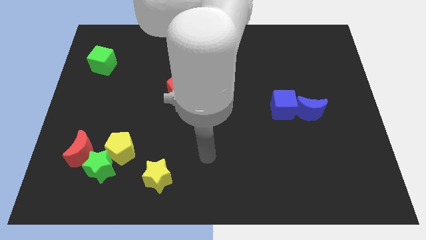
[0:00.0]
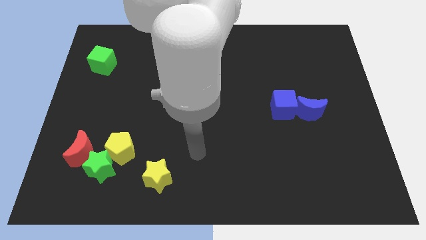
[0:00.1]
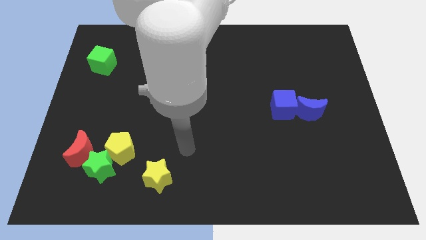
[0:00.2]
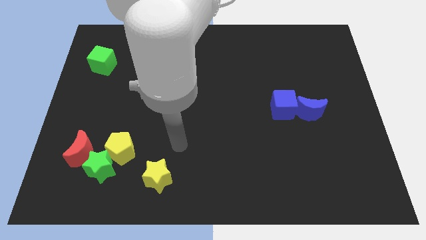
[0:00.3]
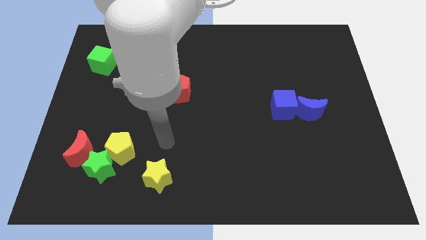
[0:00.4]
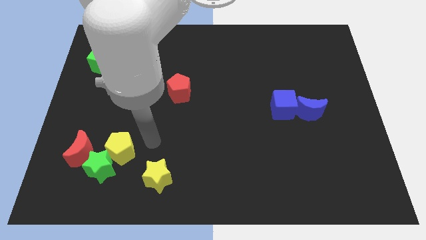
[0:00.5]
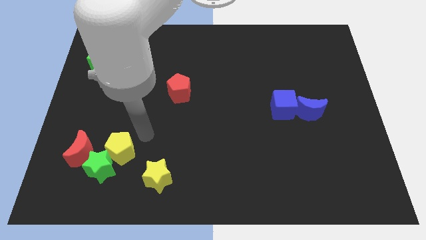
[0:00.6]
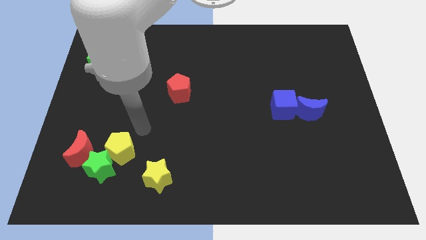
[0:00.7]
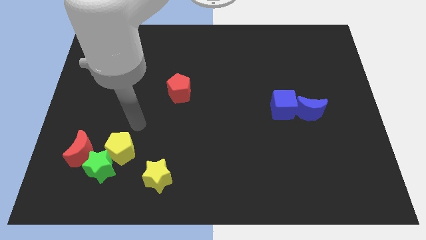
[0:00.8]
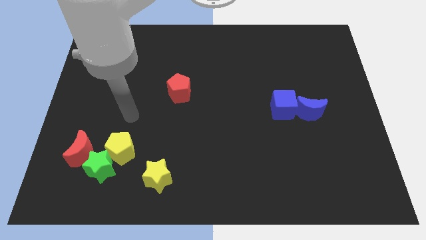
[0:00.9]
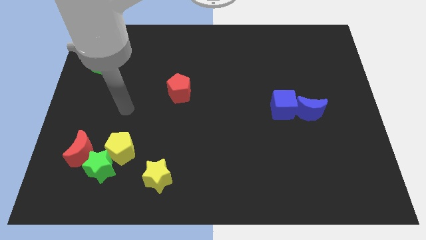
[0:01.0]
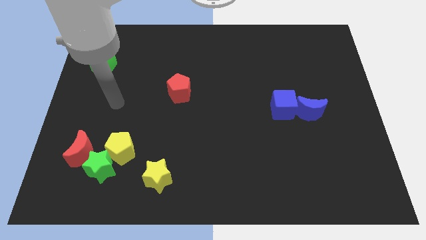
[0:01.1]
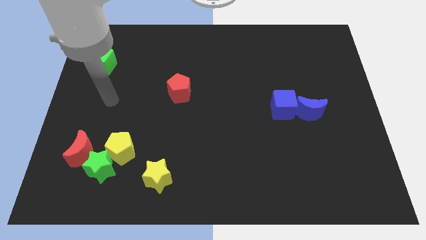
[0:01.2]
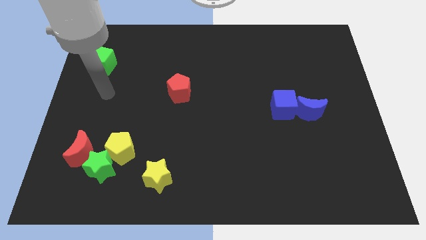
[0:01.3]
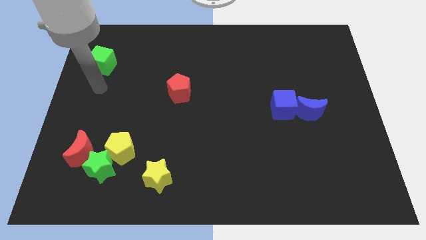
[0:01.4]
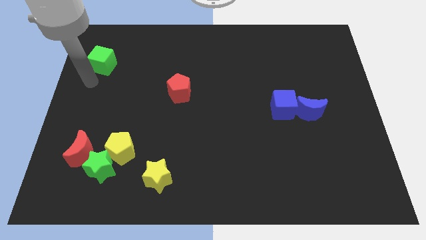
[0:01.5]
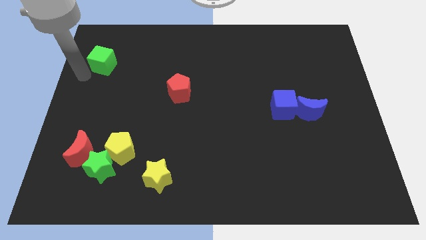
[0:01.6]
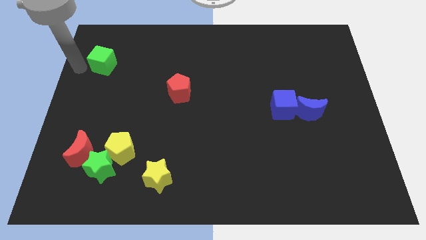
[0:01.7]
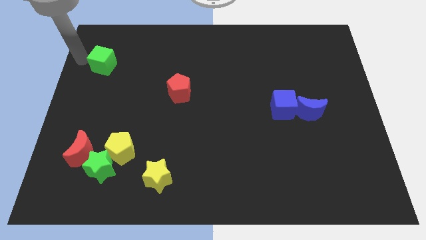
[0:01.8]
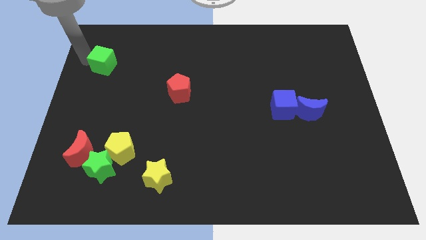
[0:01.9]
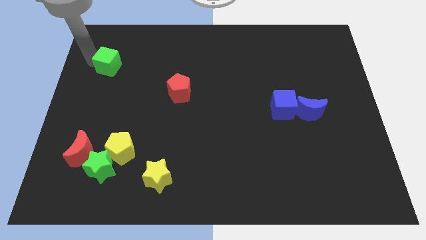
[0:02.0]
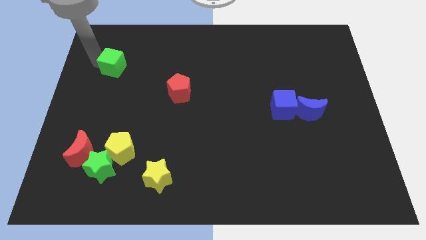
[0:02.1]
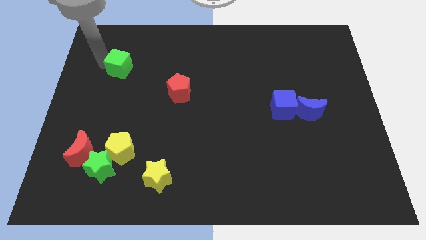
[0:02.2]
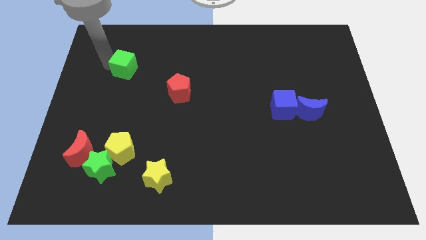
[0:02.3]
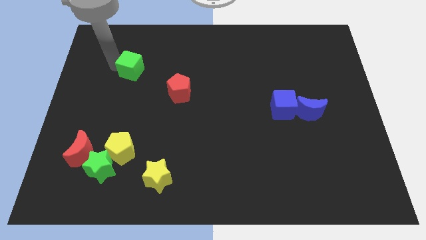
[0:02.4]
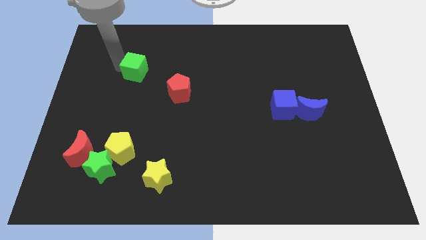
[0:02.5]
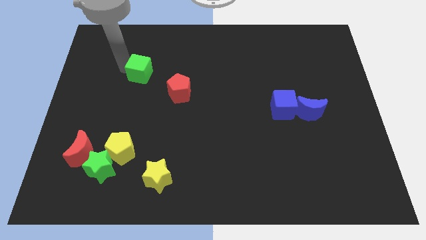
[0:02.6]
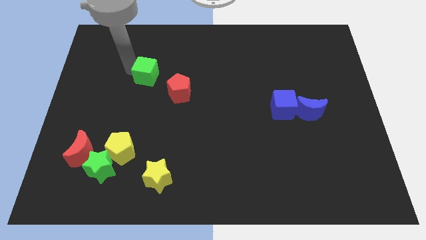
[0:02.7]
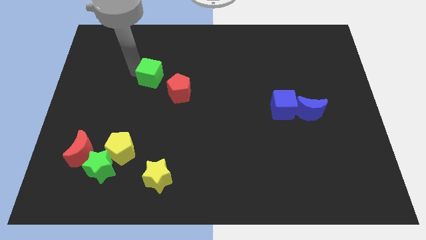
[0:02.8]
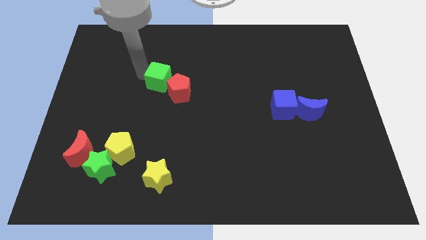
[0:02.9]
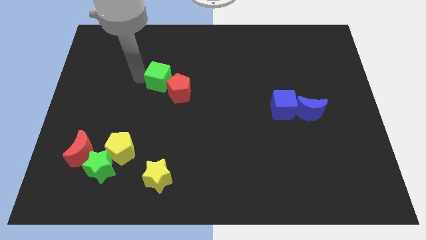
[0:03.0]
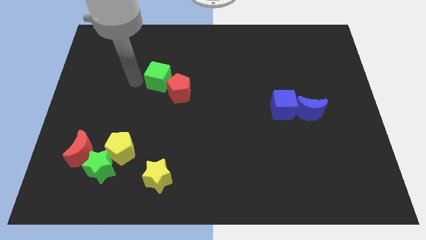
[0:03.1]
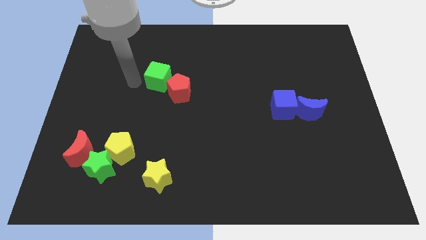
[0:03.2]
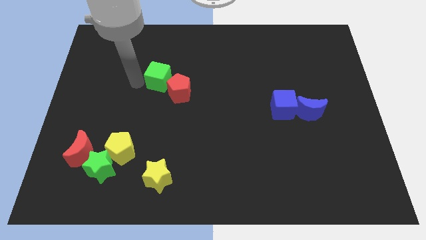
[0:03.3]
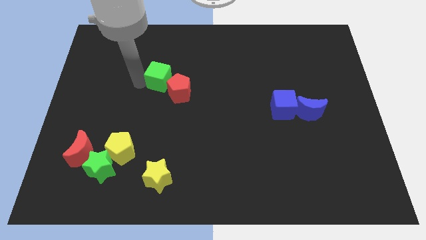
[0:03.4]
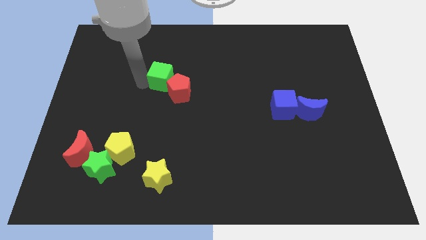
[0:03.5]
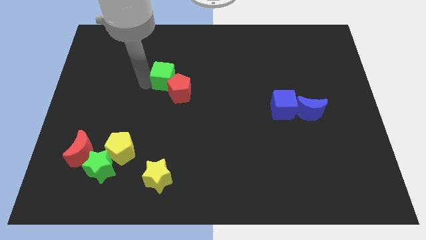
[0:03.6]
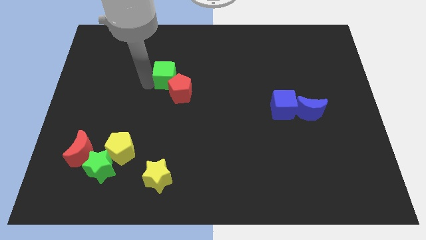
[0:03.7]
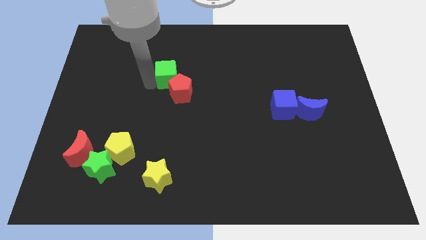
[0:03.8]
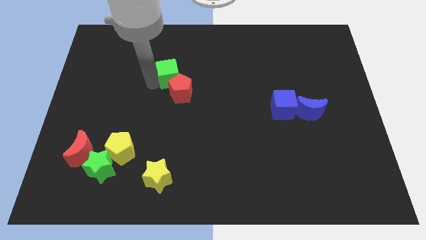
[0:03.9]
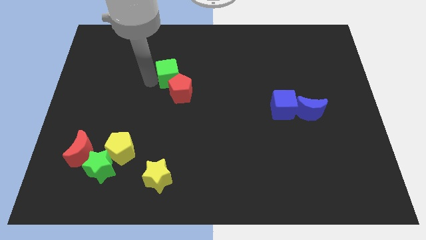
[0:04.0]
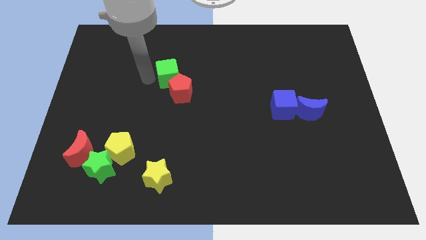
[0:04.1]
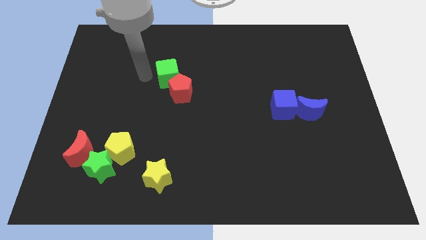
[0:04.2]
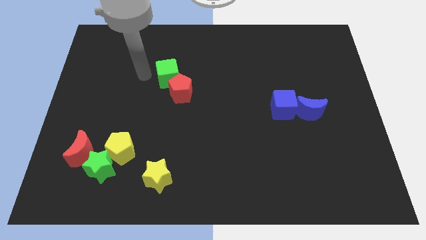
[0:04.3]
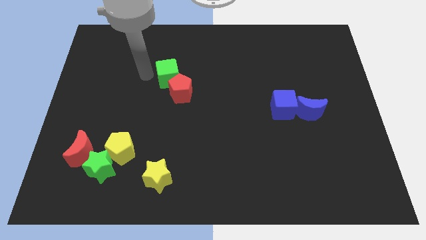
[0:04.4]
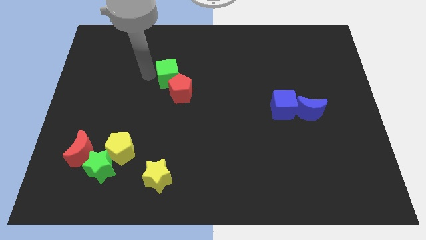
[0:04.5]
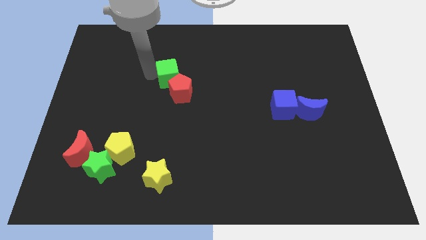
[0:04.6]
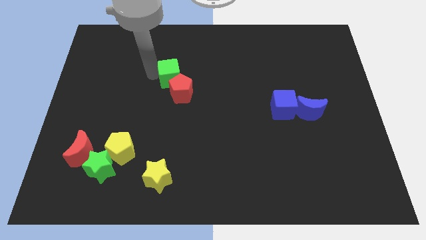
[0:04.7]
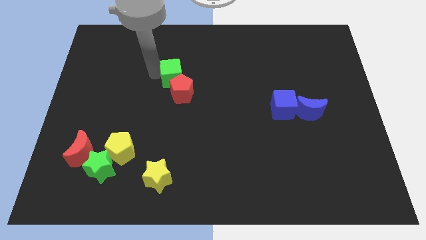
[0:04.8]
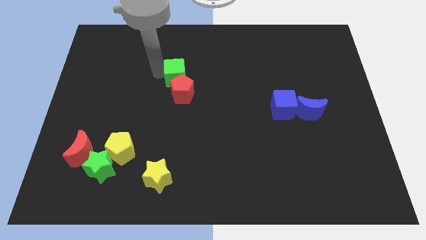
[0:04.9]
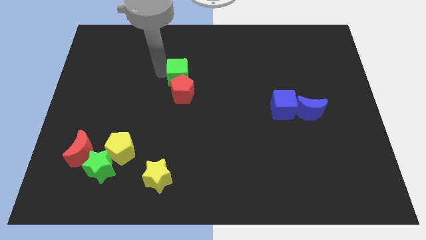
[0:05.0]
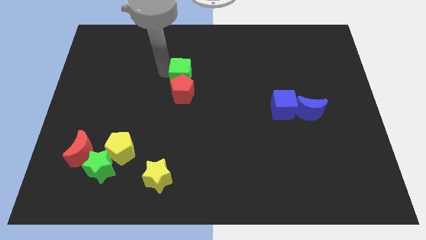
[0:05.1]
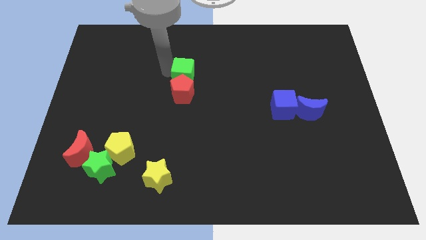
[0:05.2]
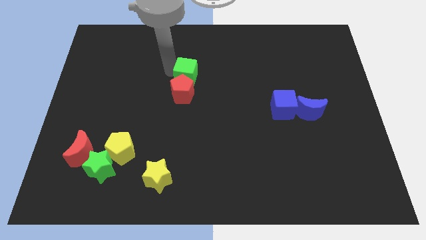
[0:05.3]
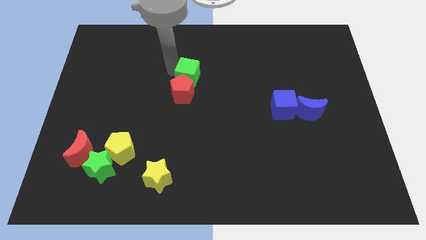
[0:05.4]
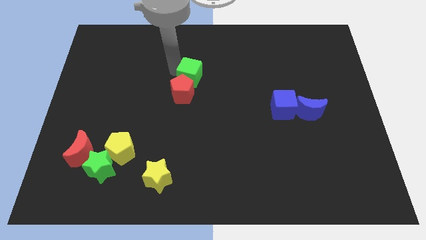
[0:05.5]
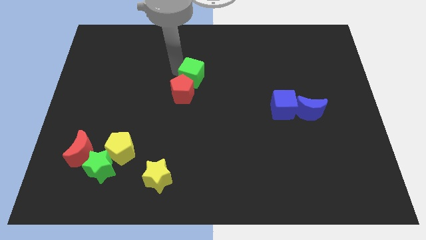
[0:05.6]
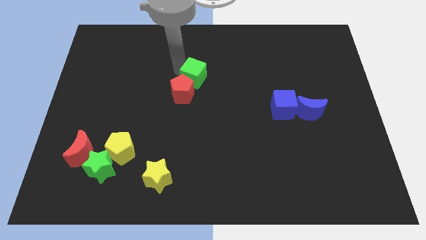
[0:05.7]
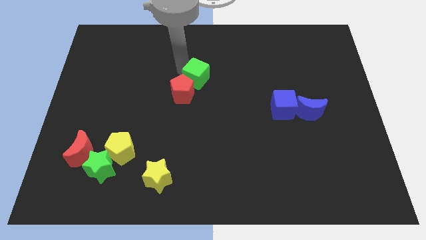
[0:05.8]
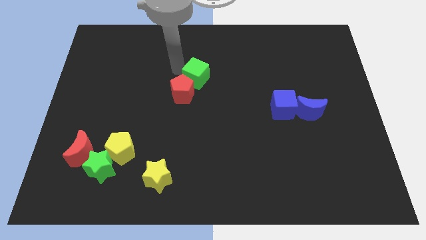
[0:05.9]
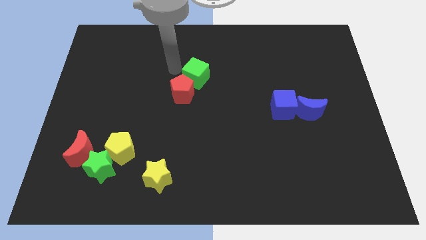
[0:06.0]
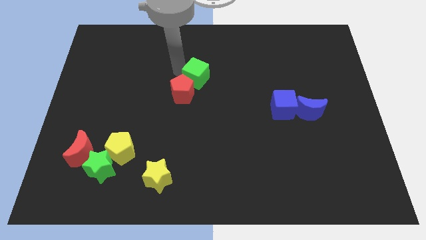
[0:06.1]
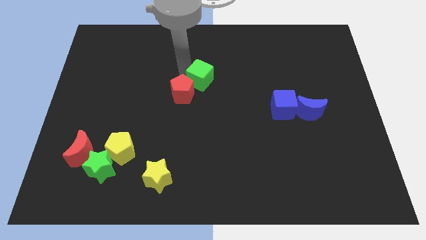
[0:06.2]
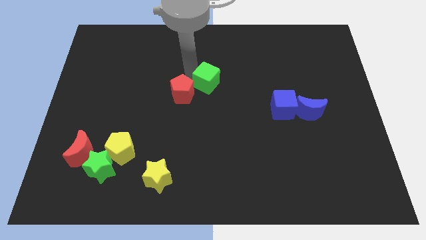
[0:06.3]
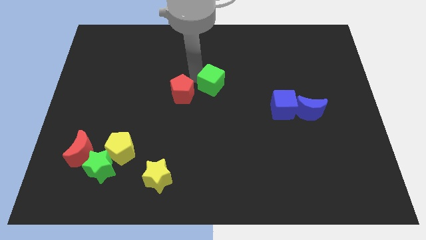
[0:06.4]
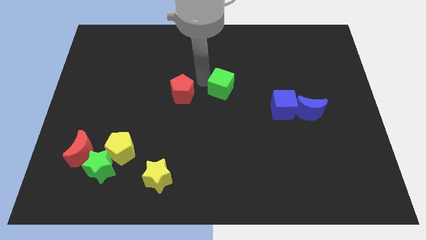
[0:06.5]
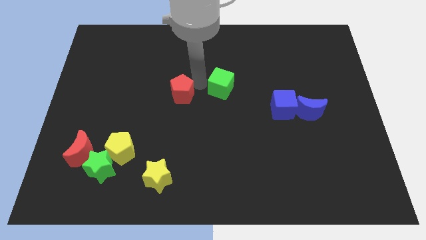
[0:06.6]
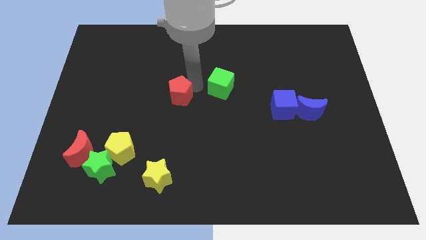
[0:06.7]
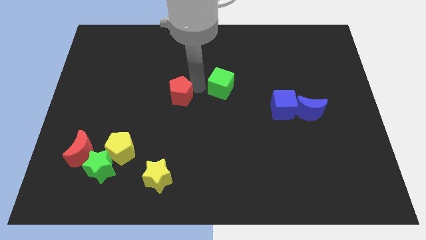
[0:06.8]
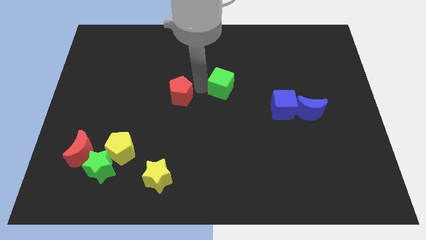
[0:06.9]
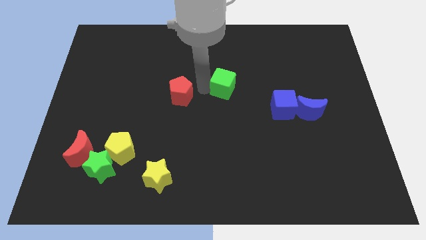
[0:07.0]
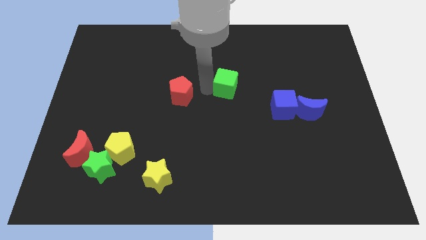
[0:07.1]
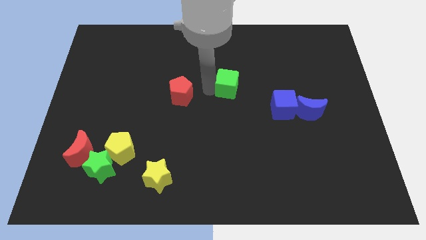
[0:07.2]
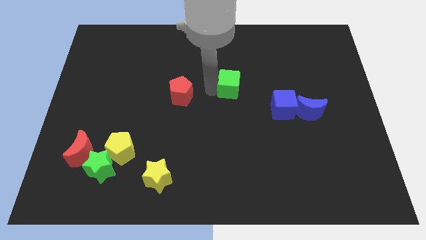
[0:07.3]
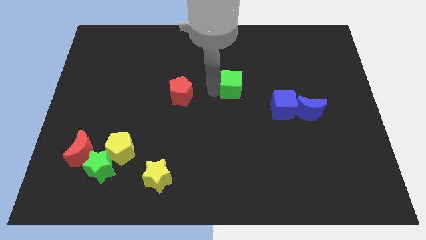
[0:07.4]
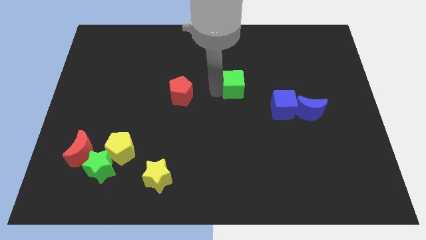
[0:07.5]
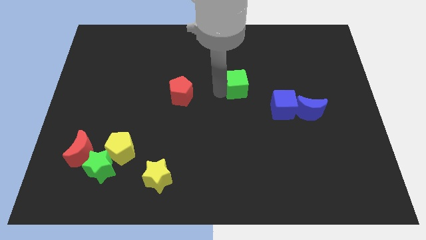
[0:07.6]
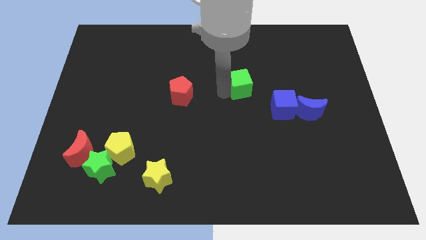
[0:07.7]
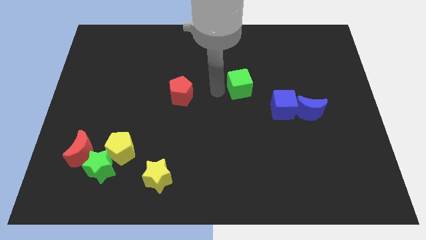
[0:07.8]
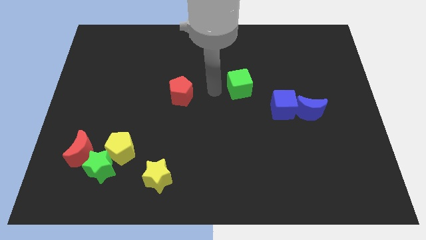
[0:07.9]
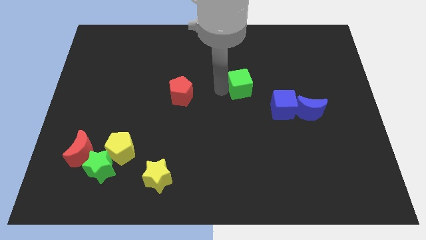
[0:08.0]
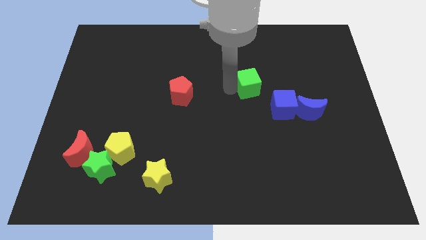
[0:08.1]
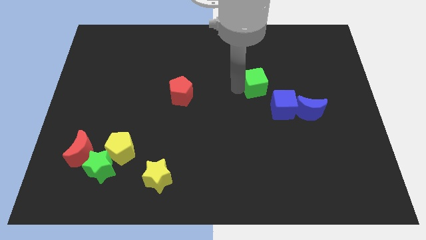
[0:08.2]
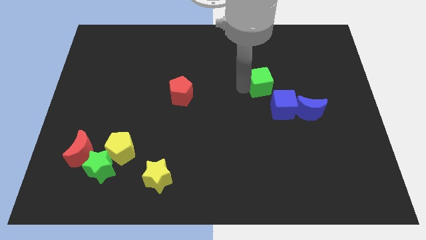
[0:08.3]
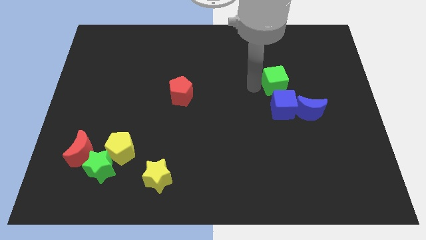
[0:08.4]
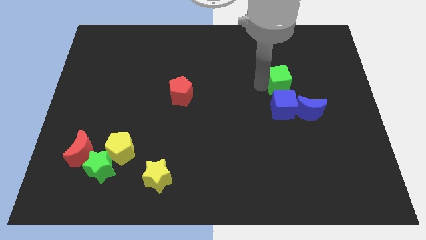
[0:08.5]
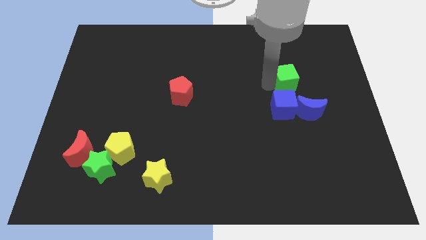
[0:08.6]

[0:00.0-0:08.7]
move the green cube above the blue moon
